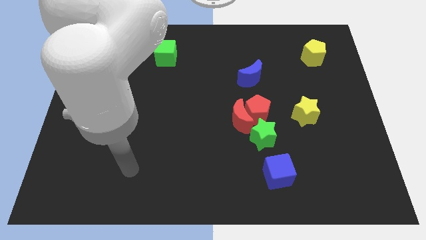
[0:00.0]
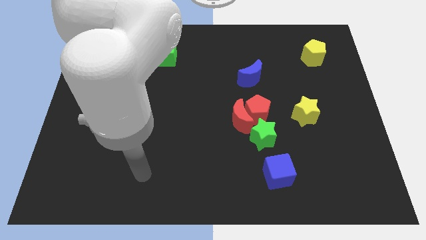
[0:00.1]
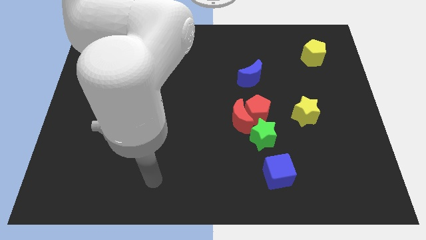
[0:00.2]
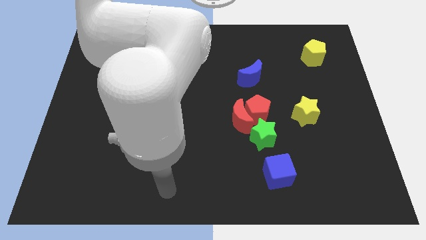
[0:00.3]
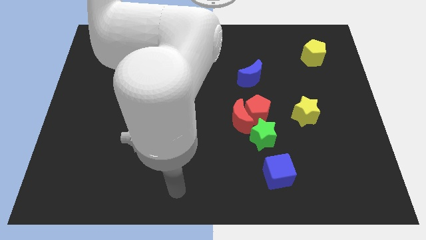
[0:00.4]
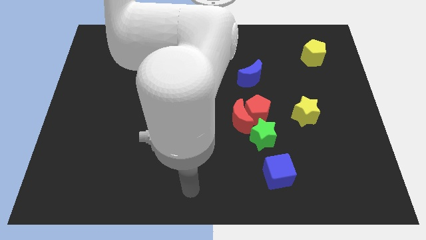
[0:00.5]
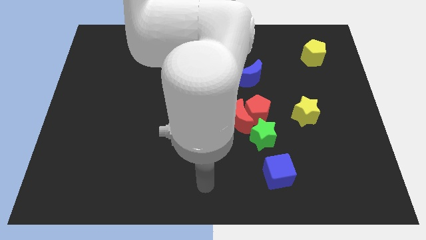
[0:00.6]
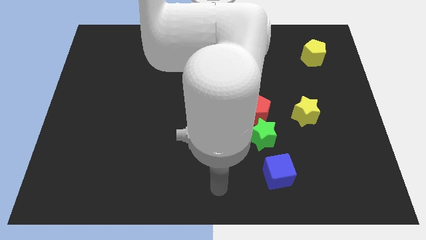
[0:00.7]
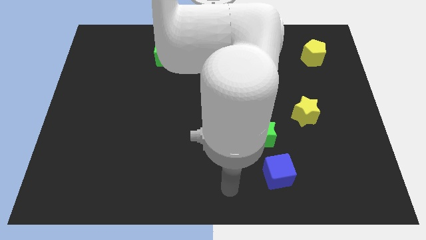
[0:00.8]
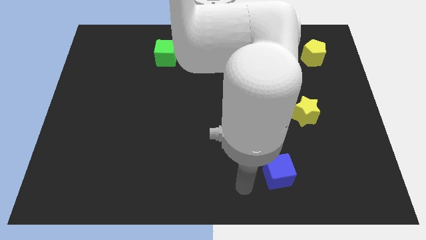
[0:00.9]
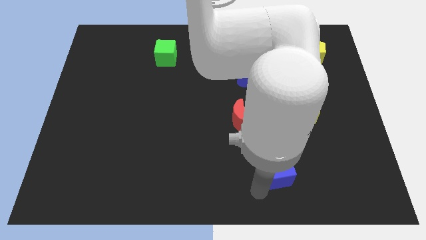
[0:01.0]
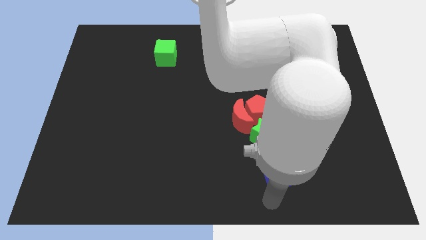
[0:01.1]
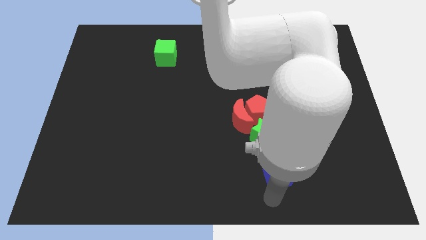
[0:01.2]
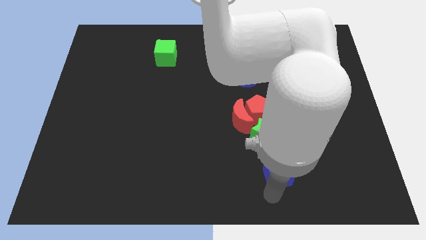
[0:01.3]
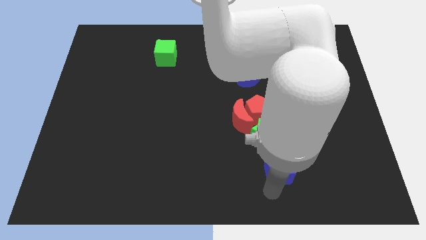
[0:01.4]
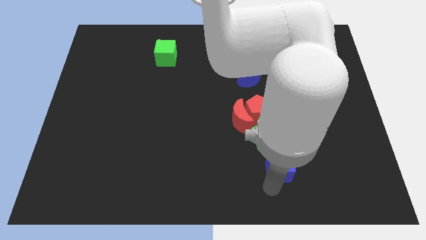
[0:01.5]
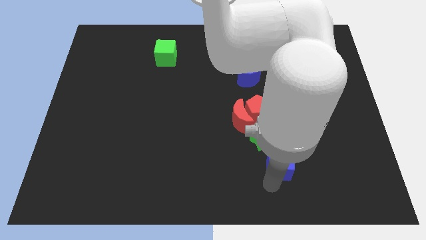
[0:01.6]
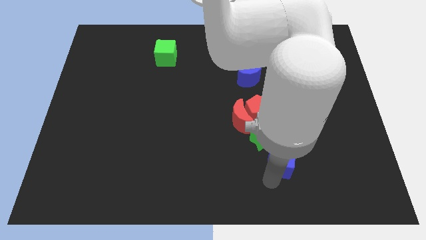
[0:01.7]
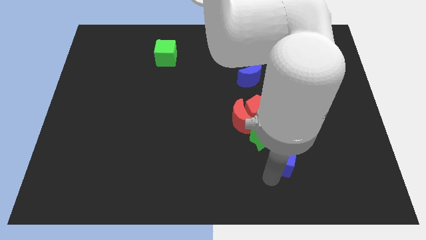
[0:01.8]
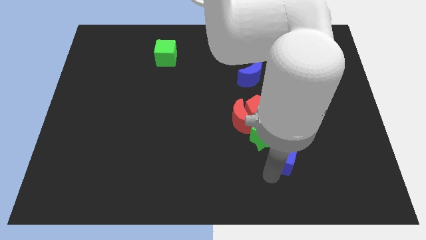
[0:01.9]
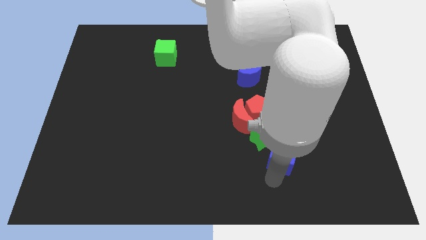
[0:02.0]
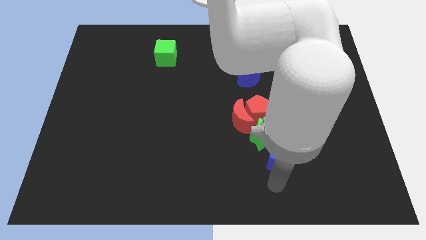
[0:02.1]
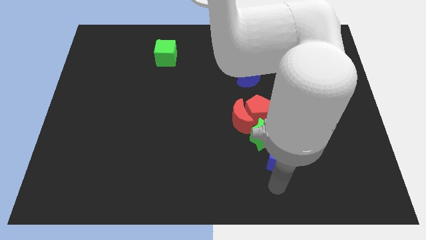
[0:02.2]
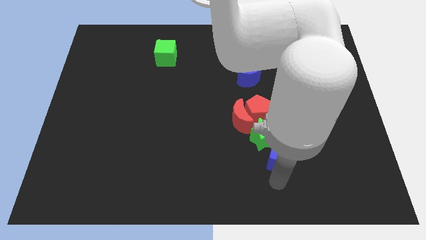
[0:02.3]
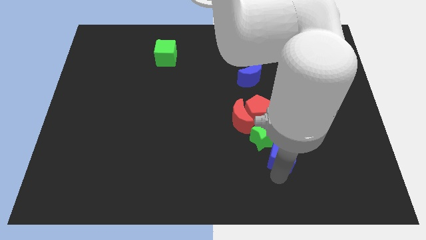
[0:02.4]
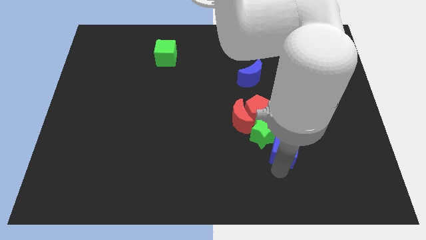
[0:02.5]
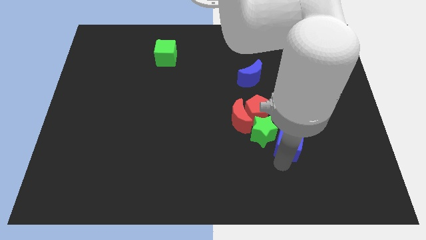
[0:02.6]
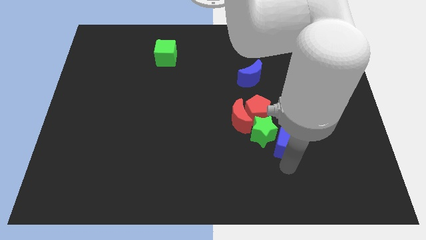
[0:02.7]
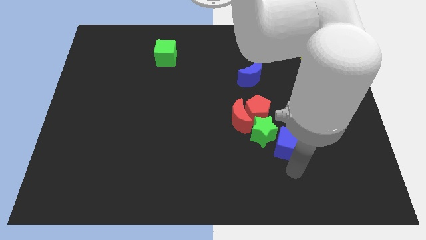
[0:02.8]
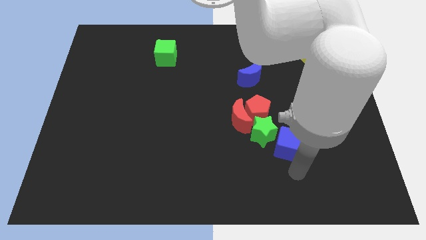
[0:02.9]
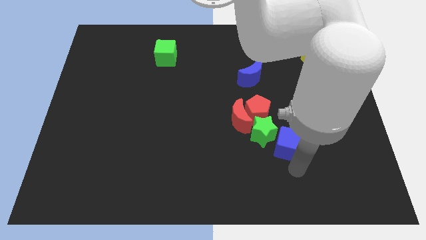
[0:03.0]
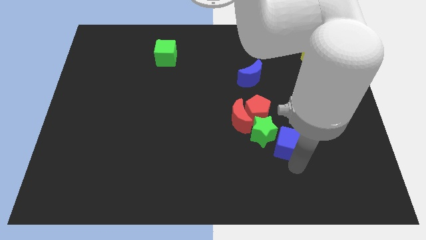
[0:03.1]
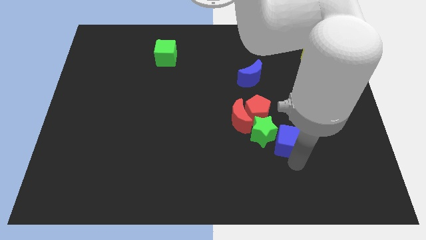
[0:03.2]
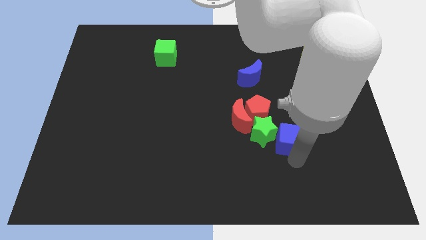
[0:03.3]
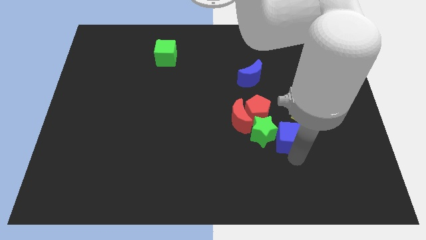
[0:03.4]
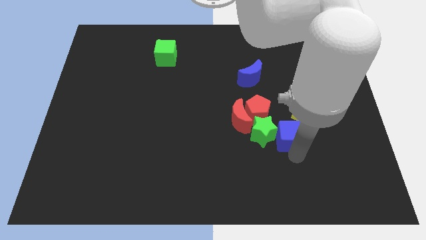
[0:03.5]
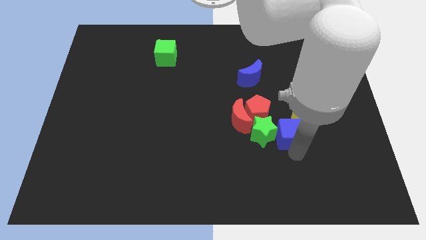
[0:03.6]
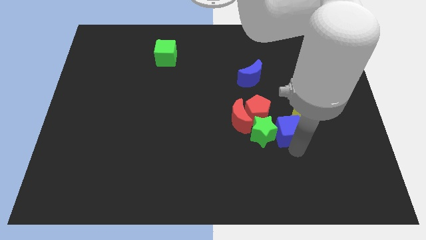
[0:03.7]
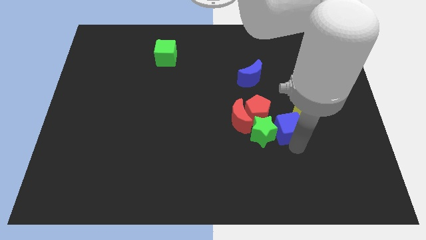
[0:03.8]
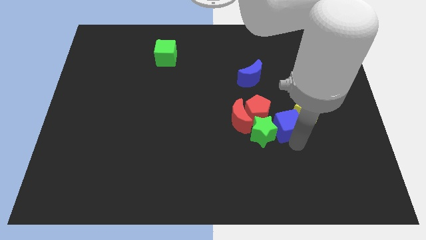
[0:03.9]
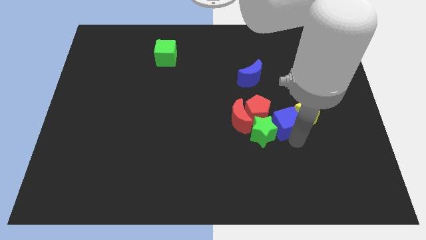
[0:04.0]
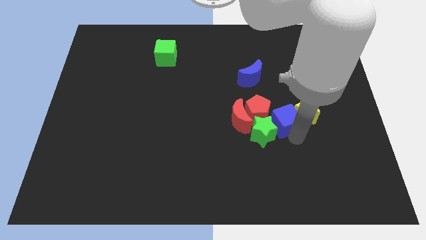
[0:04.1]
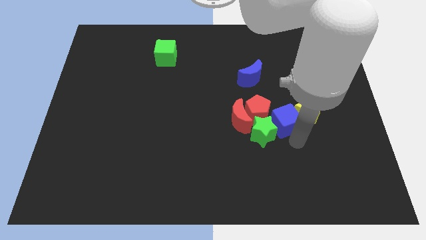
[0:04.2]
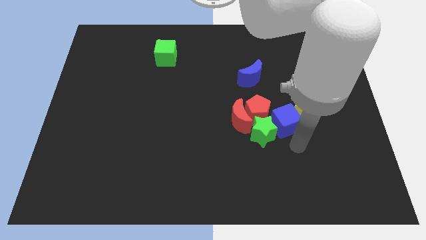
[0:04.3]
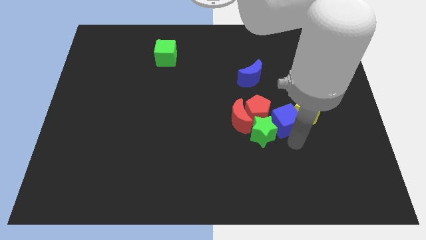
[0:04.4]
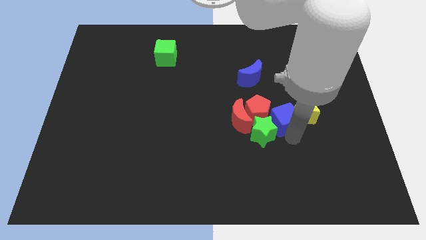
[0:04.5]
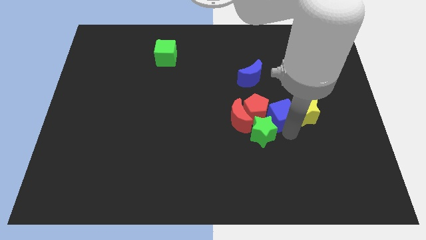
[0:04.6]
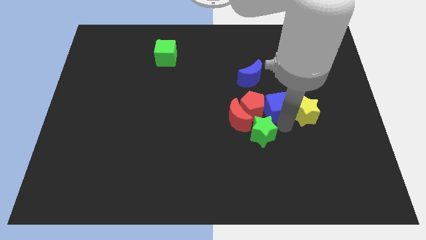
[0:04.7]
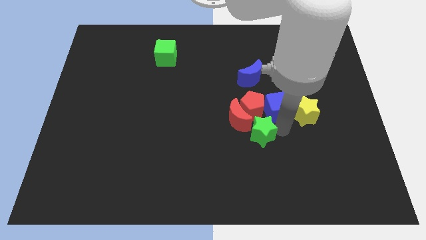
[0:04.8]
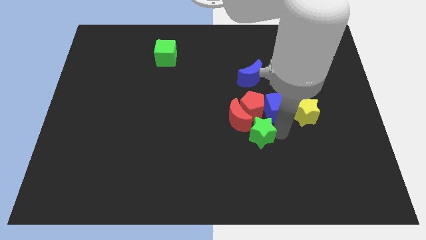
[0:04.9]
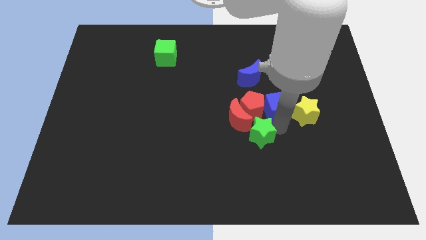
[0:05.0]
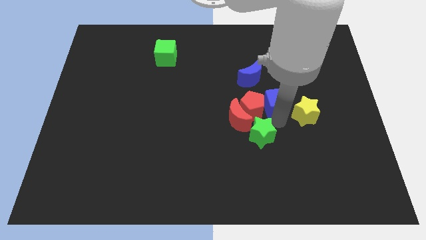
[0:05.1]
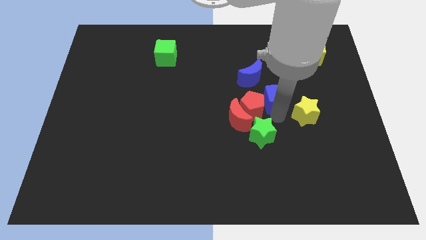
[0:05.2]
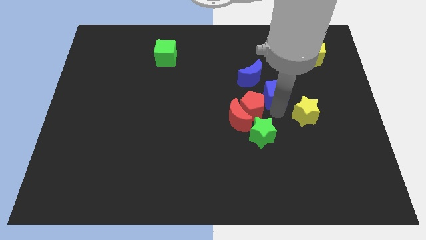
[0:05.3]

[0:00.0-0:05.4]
push the blue cube upwards

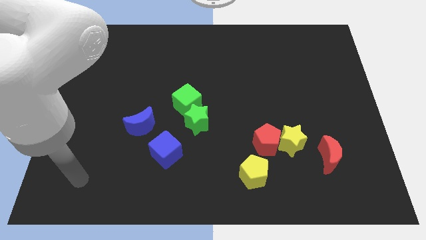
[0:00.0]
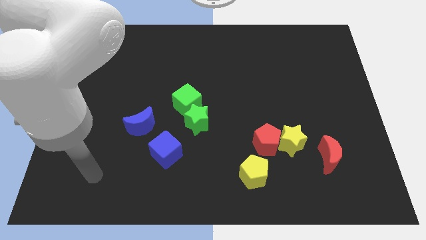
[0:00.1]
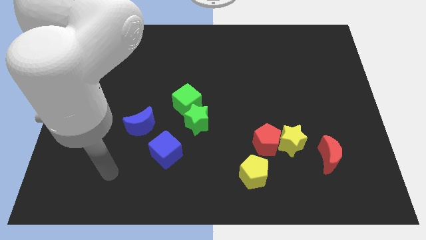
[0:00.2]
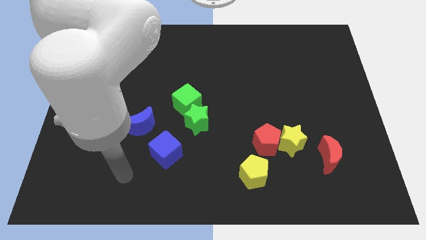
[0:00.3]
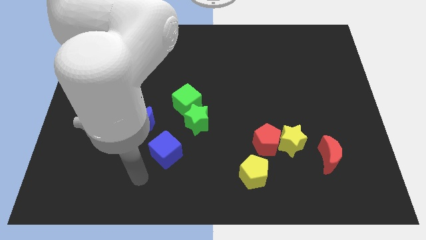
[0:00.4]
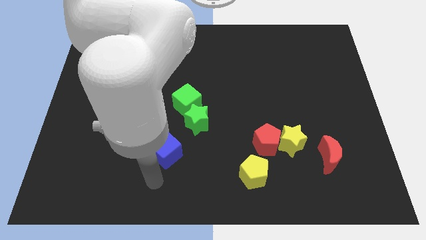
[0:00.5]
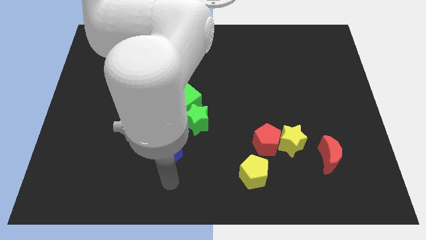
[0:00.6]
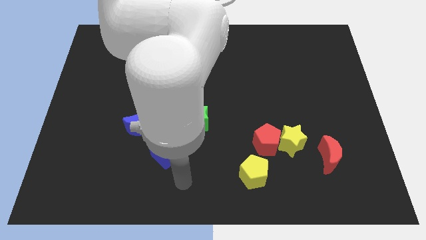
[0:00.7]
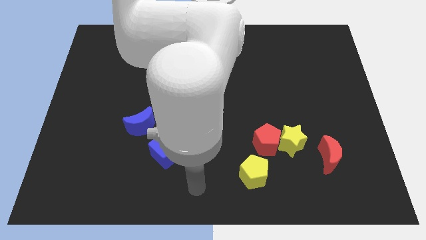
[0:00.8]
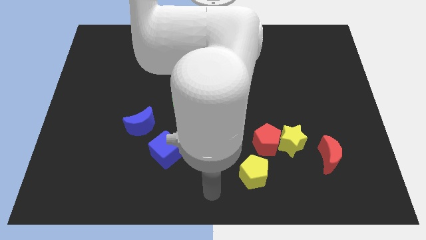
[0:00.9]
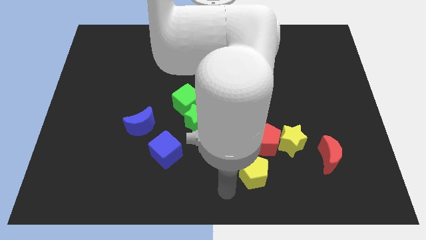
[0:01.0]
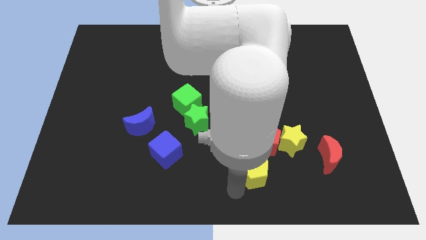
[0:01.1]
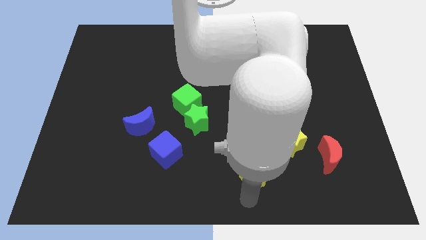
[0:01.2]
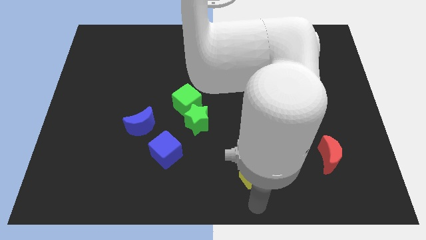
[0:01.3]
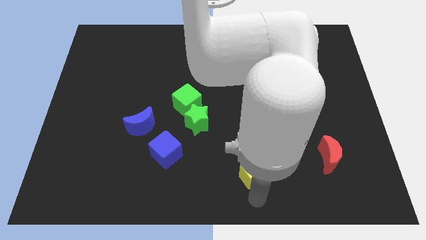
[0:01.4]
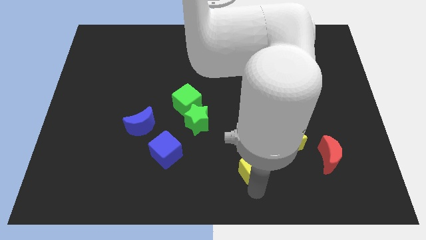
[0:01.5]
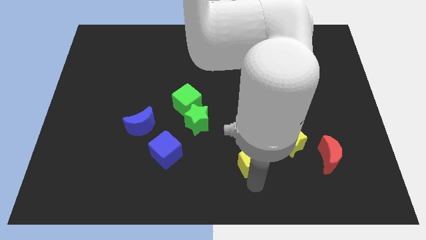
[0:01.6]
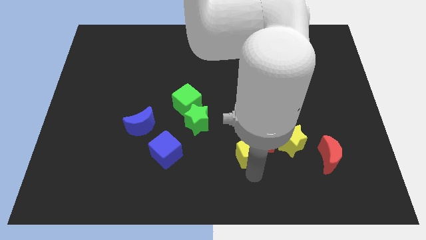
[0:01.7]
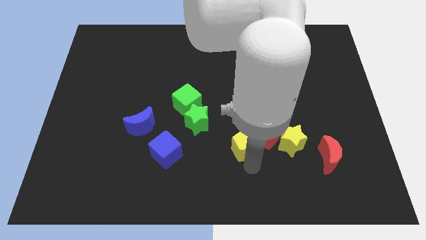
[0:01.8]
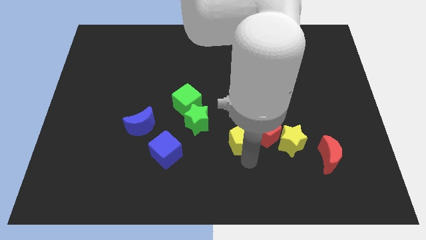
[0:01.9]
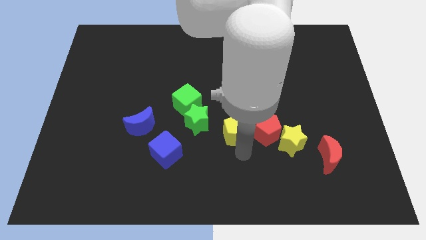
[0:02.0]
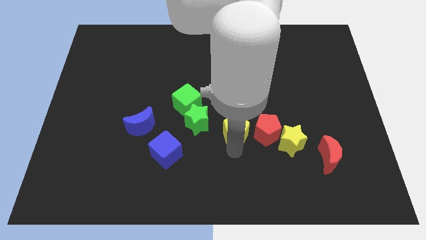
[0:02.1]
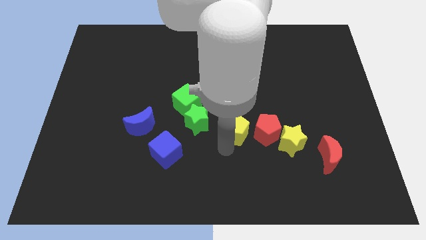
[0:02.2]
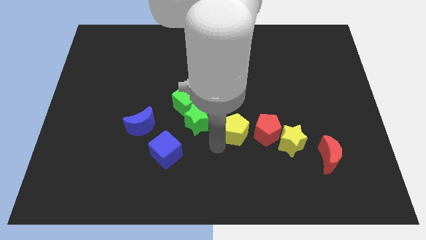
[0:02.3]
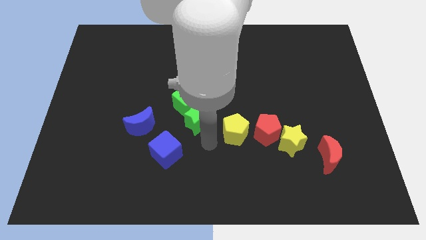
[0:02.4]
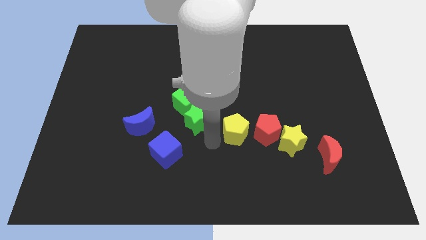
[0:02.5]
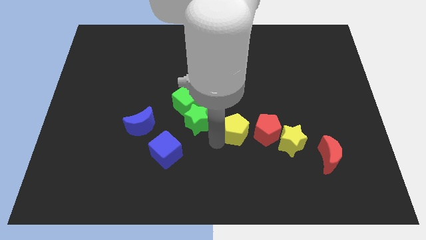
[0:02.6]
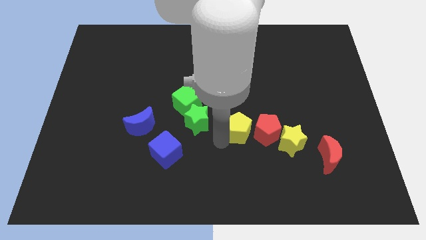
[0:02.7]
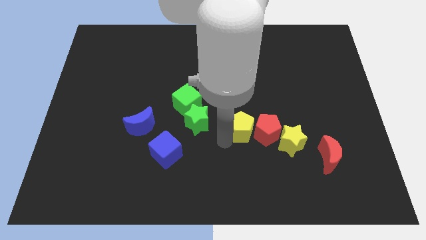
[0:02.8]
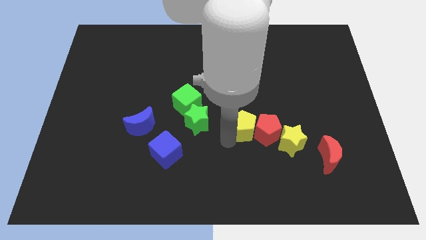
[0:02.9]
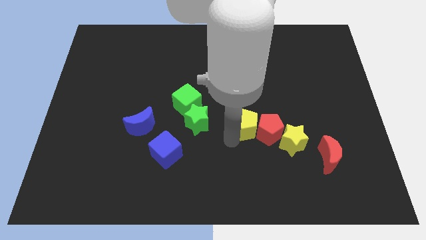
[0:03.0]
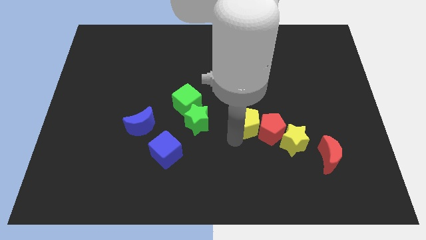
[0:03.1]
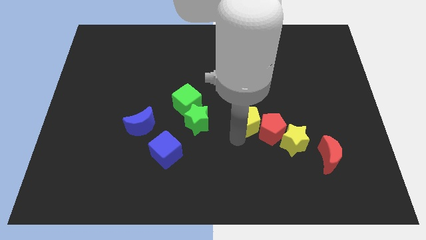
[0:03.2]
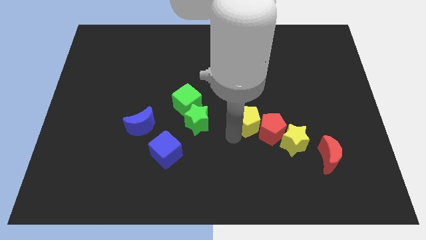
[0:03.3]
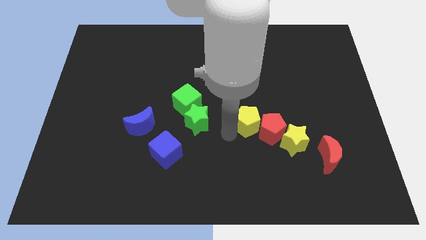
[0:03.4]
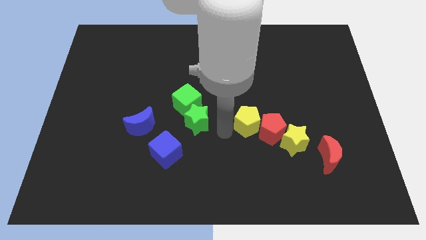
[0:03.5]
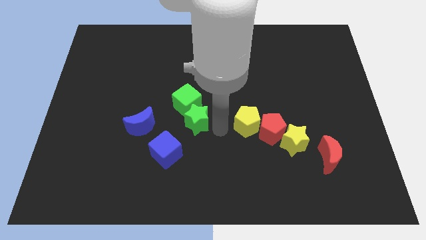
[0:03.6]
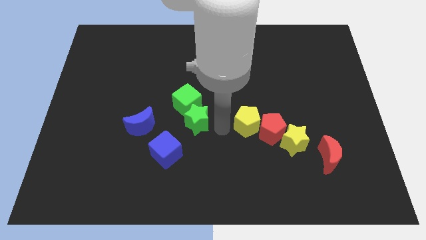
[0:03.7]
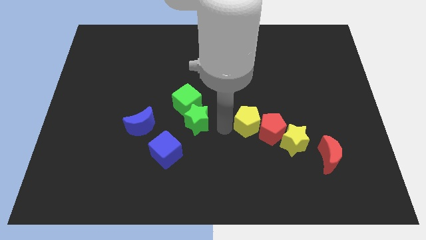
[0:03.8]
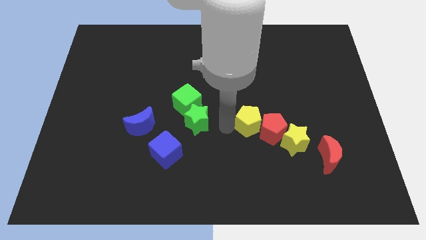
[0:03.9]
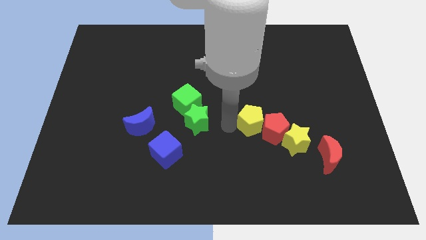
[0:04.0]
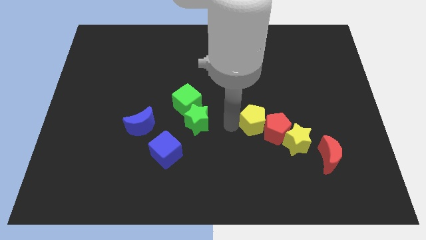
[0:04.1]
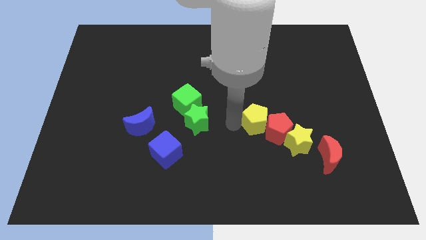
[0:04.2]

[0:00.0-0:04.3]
slide the yellow pentagon diagonally up and right a little
